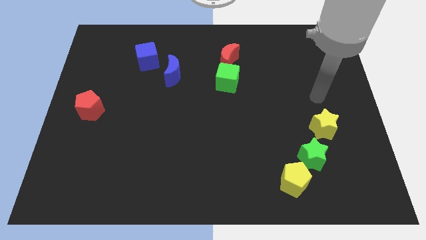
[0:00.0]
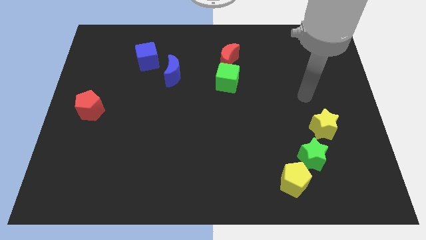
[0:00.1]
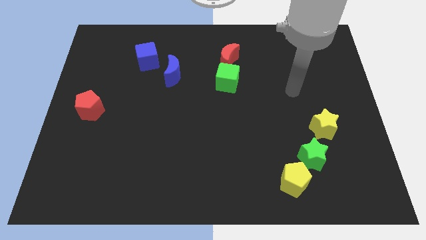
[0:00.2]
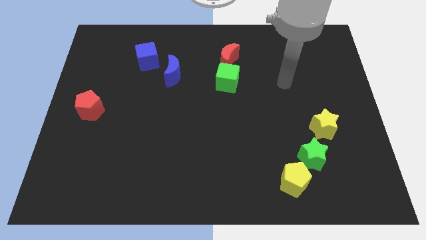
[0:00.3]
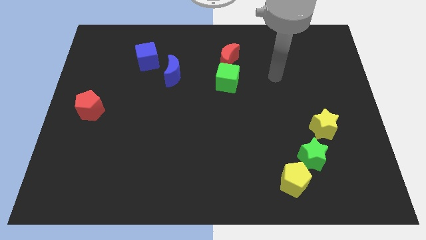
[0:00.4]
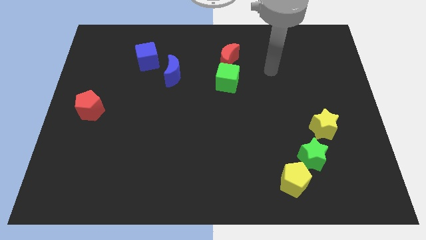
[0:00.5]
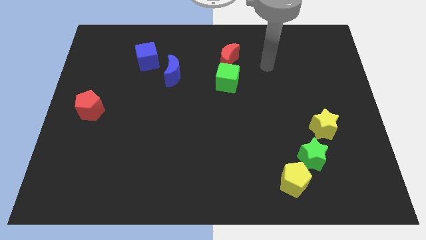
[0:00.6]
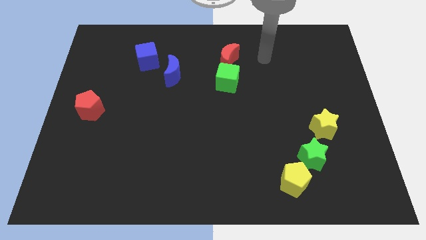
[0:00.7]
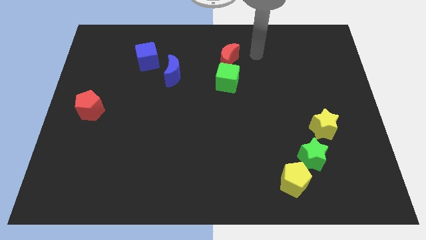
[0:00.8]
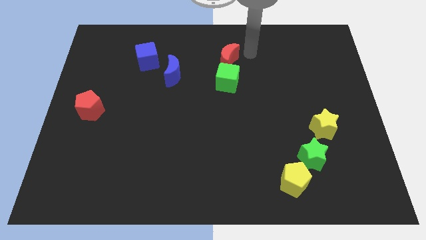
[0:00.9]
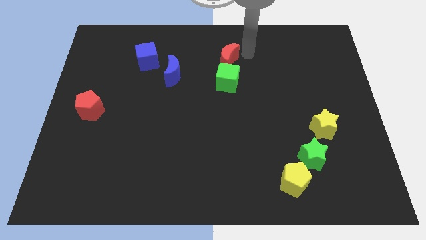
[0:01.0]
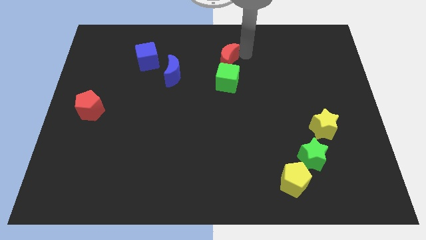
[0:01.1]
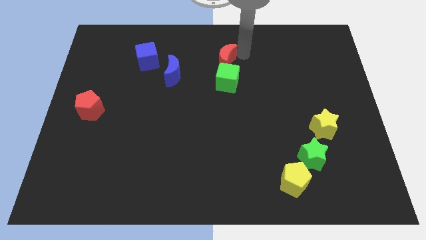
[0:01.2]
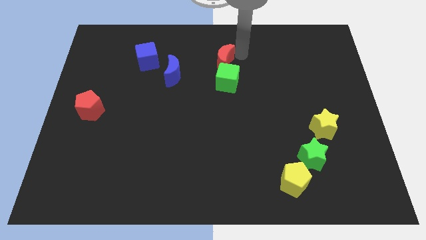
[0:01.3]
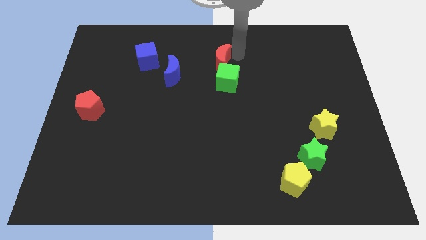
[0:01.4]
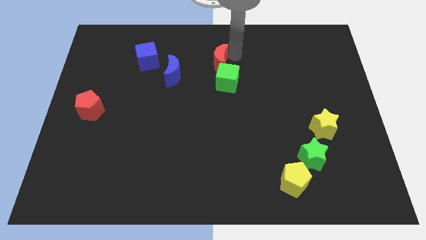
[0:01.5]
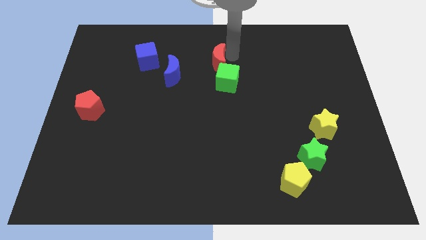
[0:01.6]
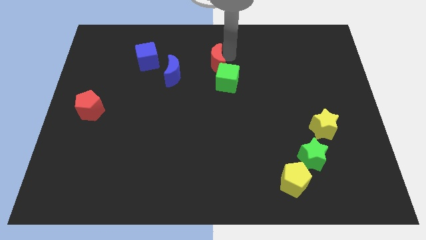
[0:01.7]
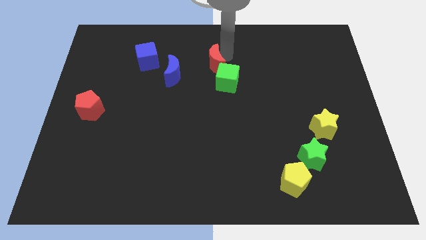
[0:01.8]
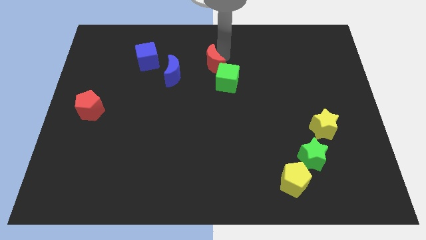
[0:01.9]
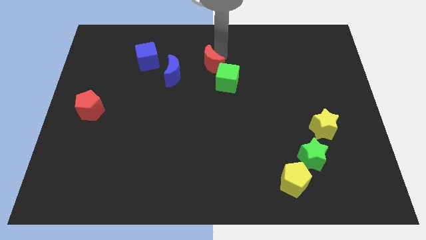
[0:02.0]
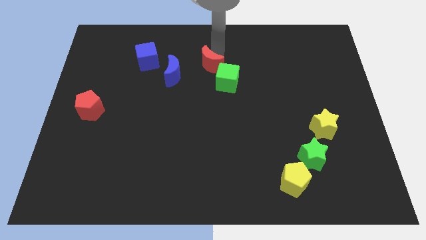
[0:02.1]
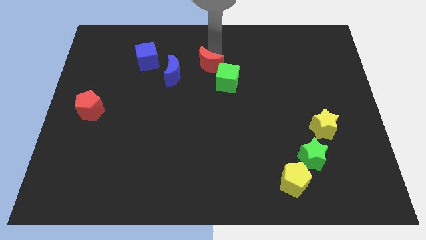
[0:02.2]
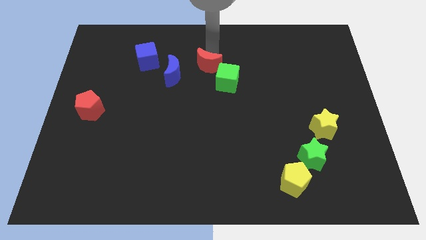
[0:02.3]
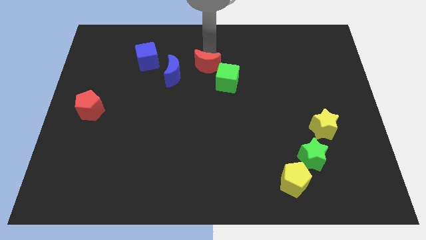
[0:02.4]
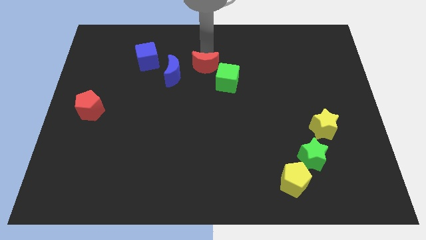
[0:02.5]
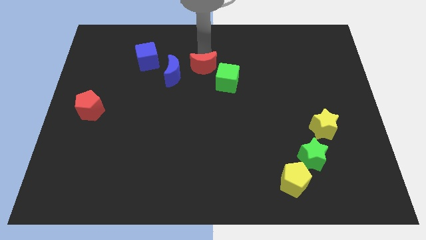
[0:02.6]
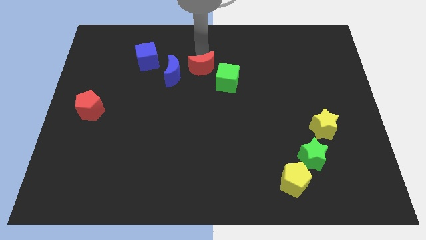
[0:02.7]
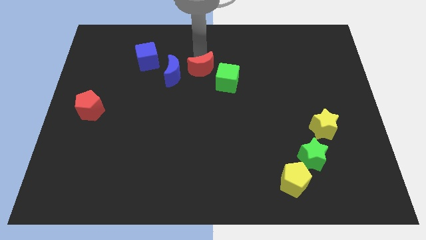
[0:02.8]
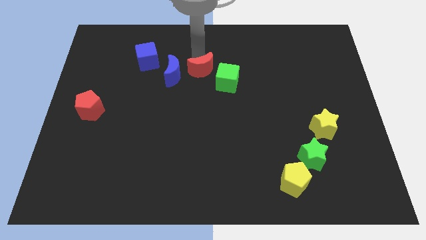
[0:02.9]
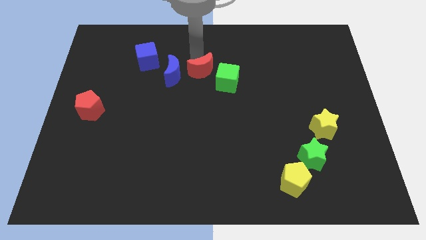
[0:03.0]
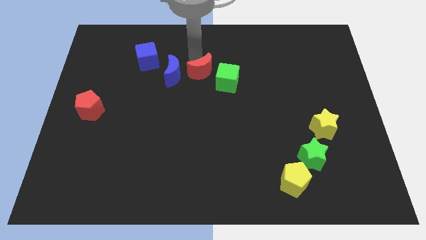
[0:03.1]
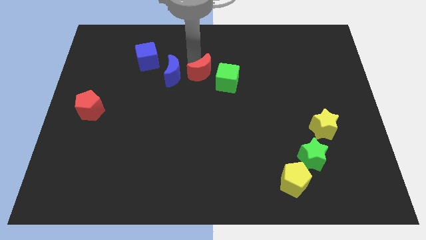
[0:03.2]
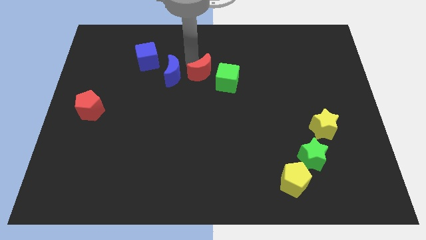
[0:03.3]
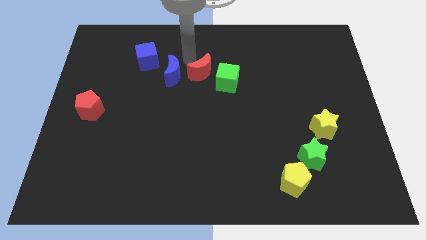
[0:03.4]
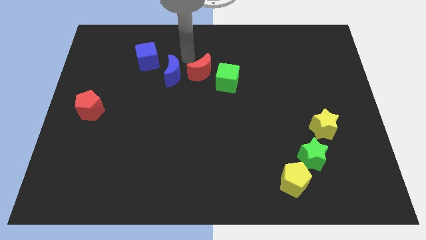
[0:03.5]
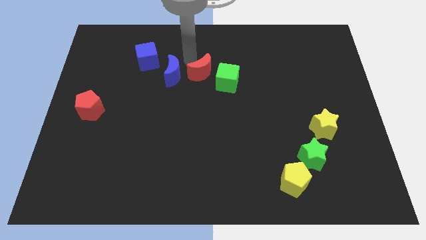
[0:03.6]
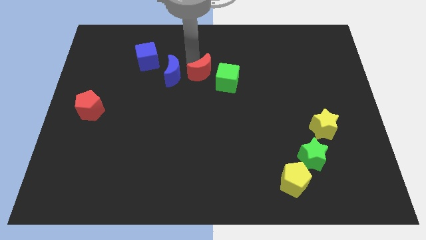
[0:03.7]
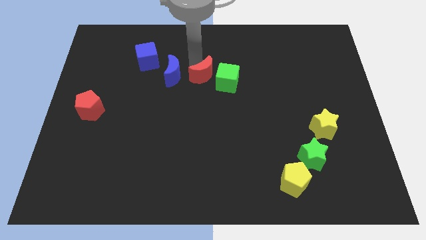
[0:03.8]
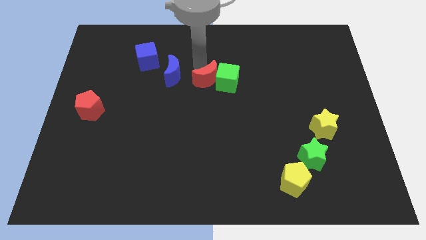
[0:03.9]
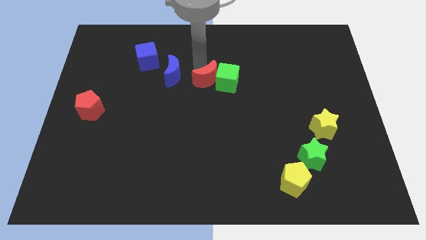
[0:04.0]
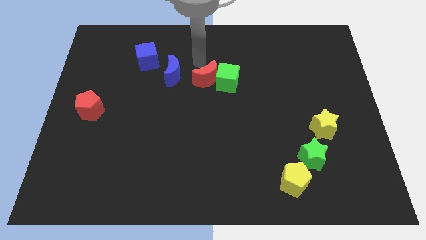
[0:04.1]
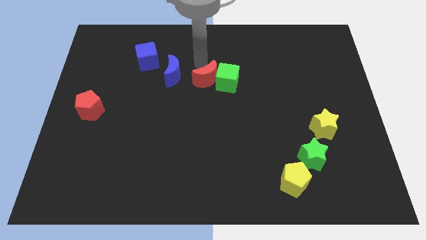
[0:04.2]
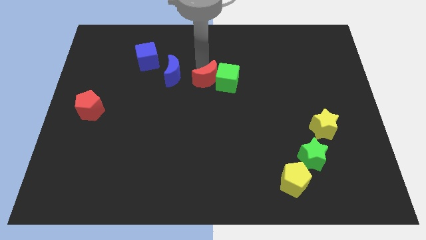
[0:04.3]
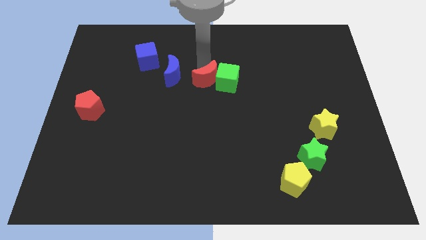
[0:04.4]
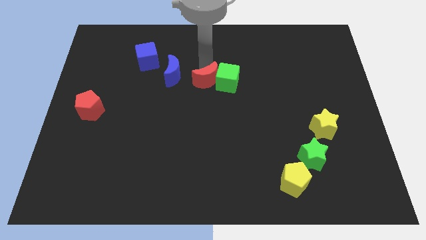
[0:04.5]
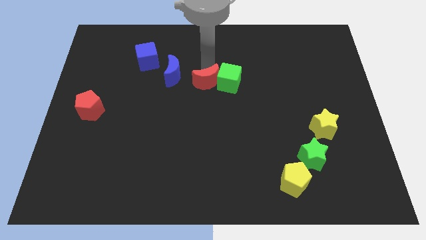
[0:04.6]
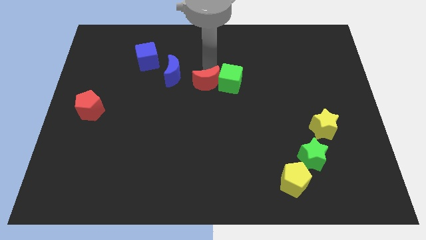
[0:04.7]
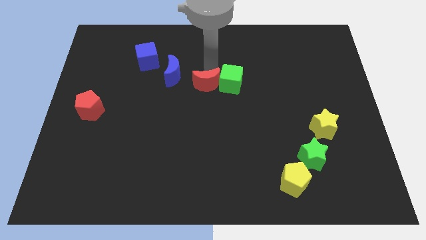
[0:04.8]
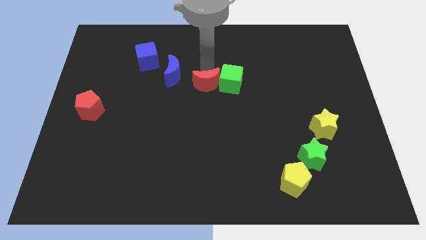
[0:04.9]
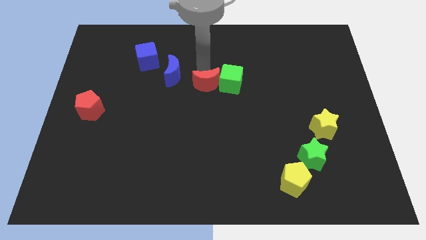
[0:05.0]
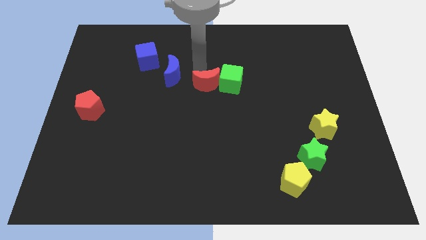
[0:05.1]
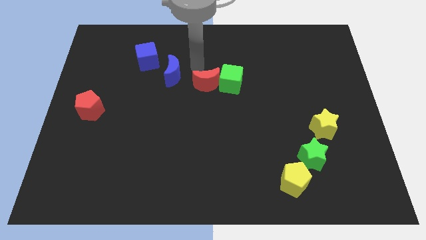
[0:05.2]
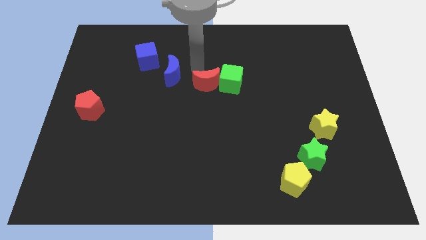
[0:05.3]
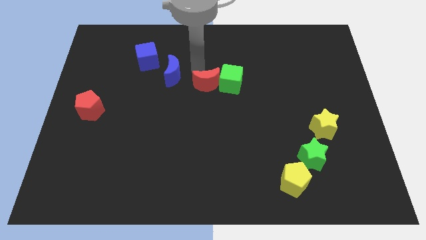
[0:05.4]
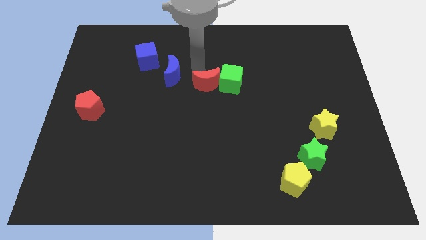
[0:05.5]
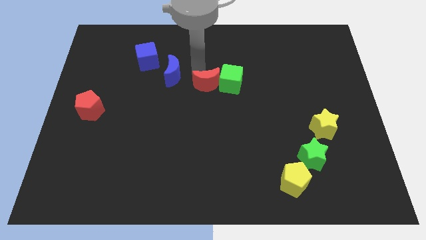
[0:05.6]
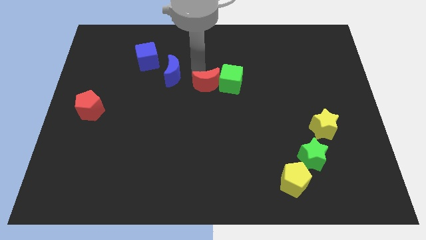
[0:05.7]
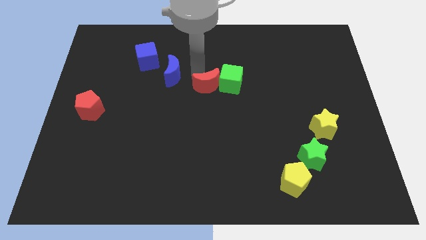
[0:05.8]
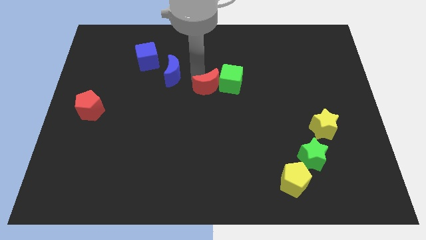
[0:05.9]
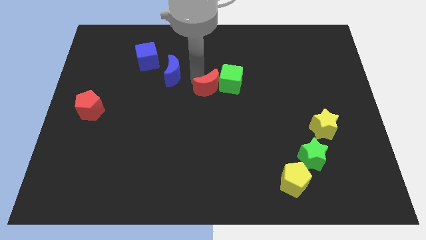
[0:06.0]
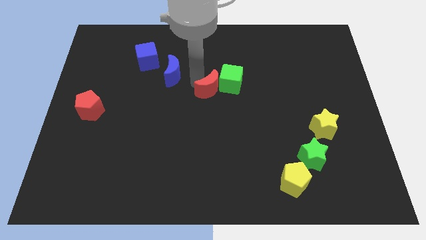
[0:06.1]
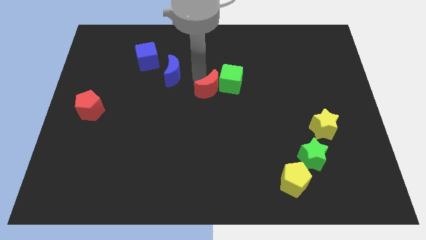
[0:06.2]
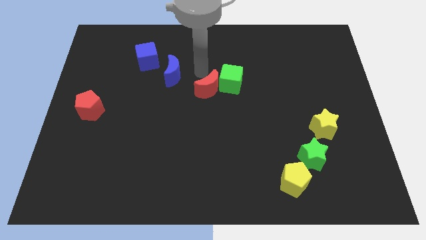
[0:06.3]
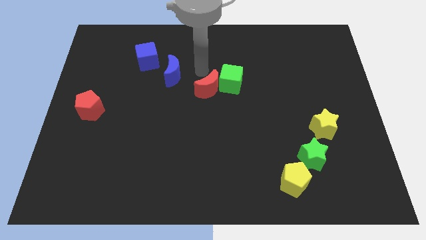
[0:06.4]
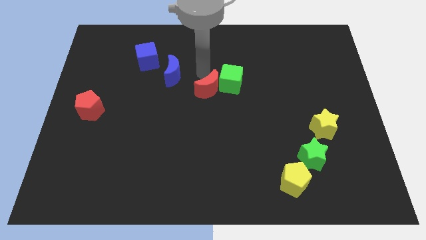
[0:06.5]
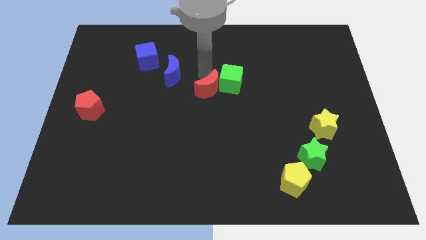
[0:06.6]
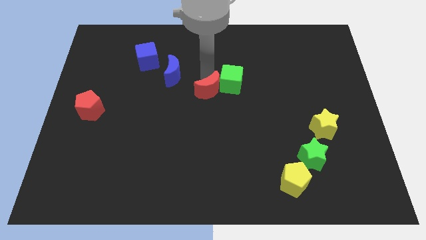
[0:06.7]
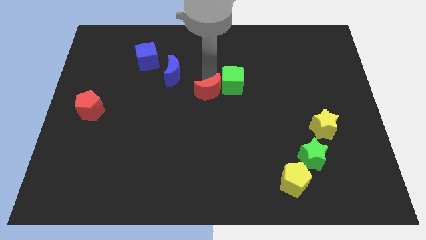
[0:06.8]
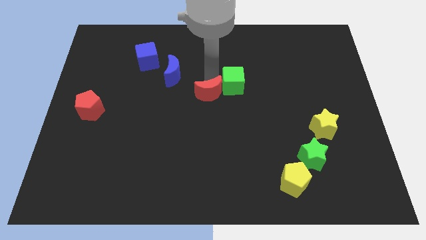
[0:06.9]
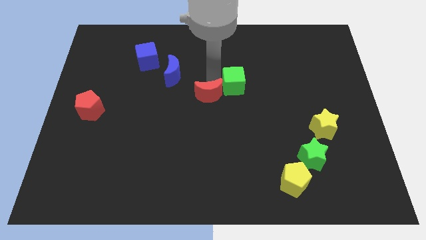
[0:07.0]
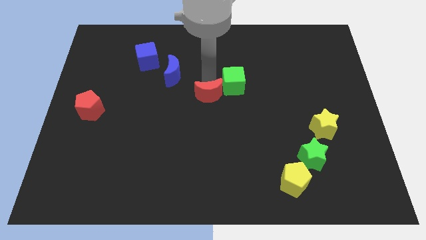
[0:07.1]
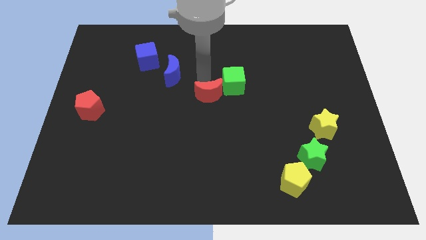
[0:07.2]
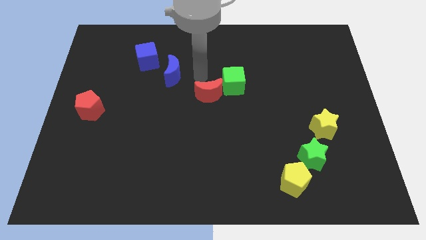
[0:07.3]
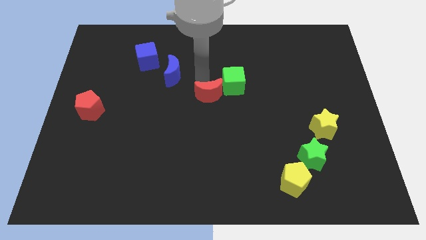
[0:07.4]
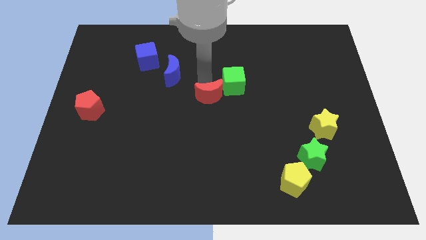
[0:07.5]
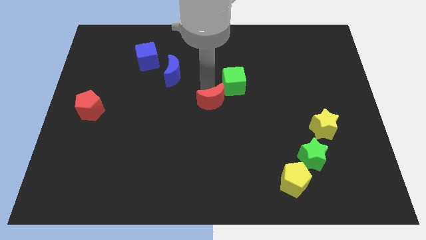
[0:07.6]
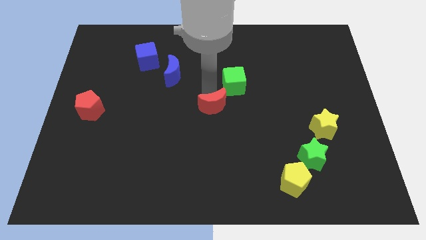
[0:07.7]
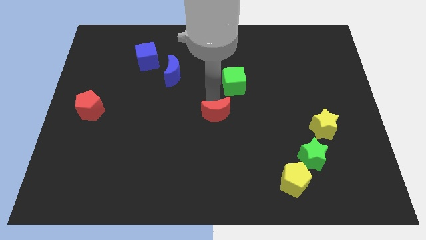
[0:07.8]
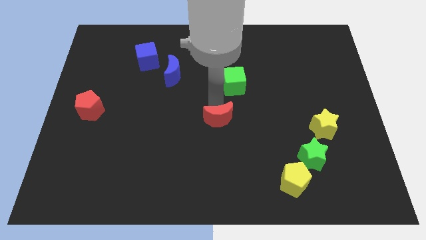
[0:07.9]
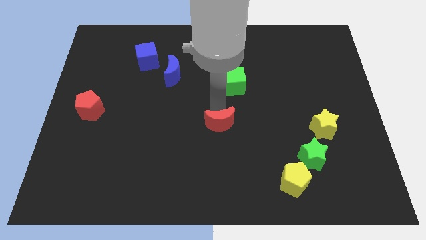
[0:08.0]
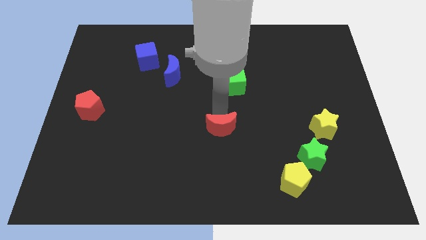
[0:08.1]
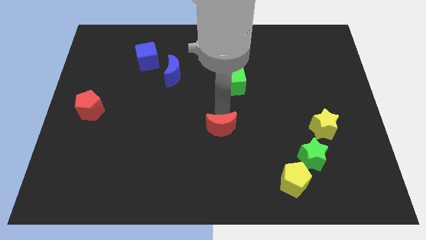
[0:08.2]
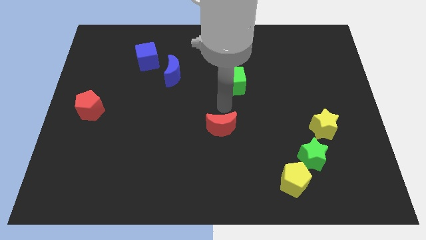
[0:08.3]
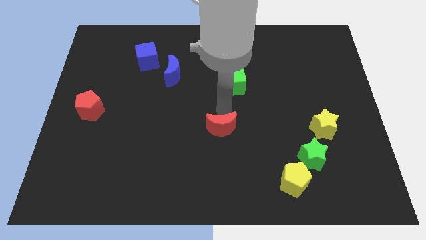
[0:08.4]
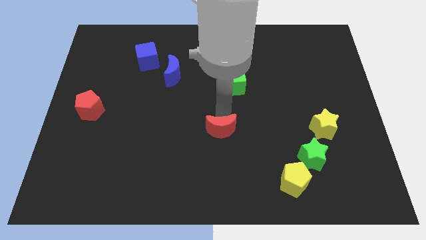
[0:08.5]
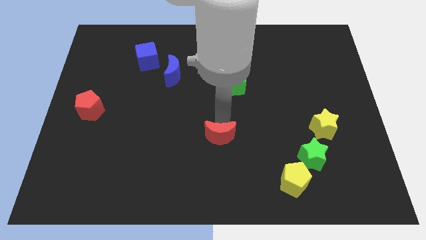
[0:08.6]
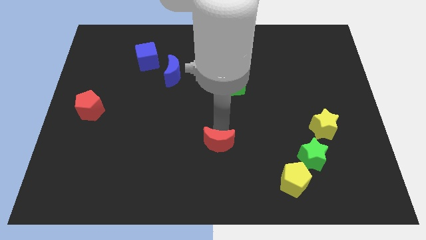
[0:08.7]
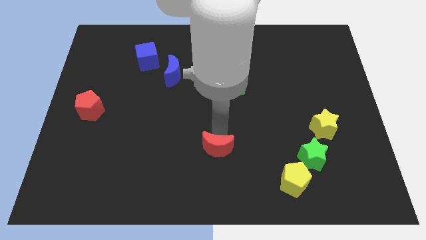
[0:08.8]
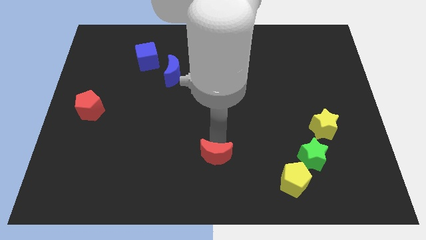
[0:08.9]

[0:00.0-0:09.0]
put the red moon to the bottom
